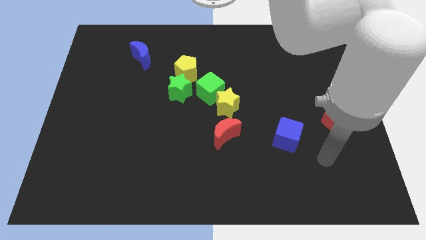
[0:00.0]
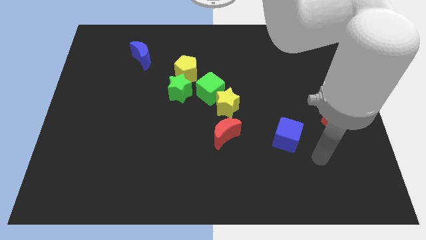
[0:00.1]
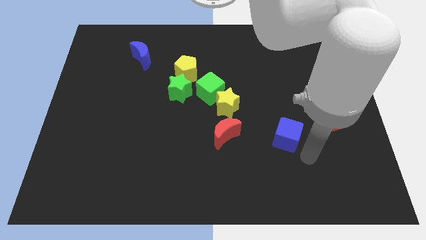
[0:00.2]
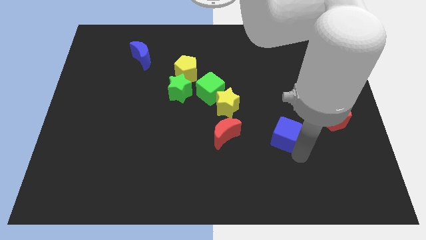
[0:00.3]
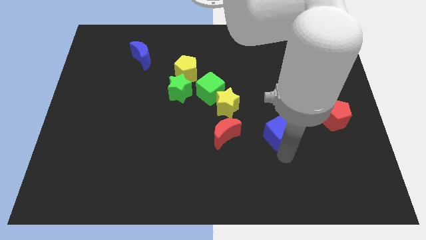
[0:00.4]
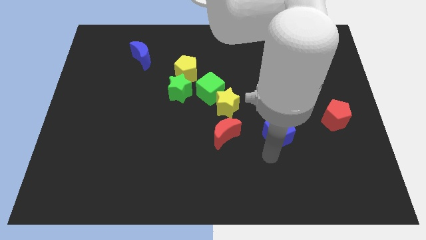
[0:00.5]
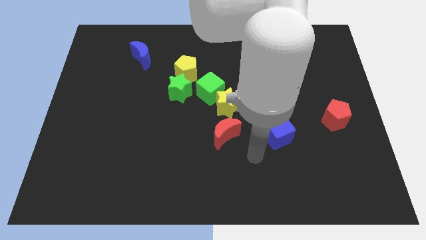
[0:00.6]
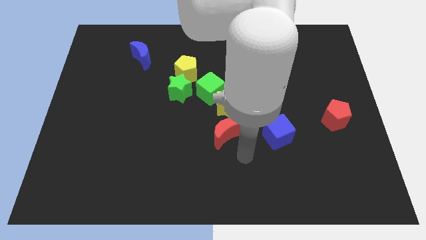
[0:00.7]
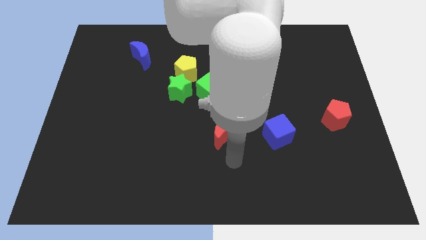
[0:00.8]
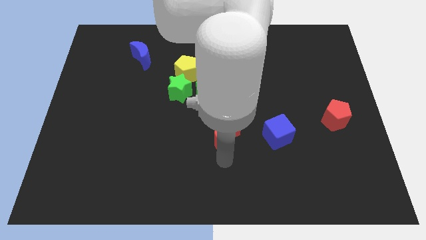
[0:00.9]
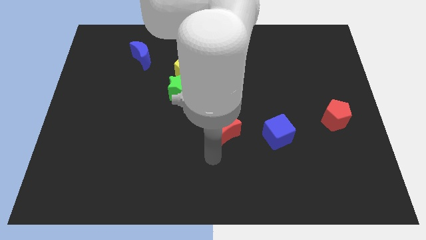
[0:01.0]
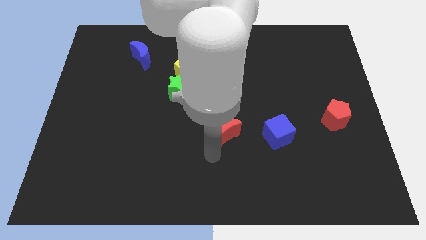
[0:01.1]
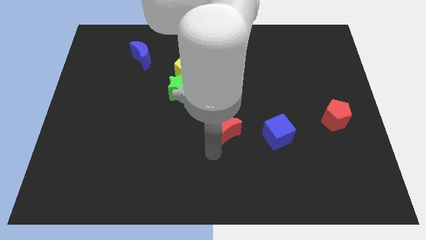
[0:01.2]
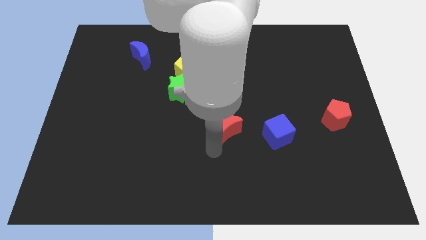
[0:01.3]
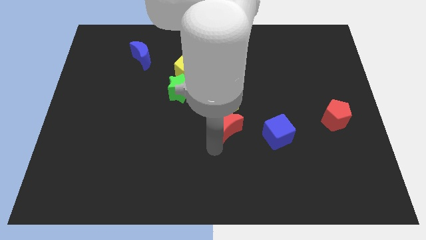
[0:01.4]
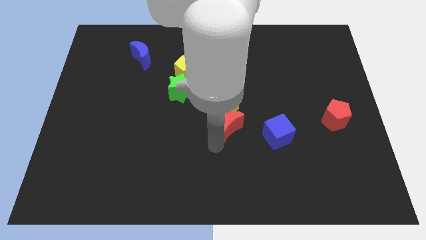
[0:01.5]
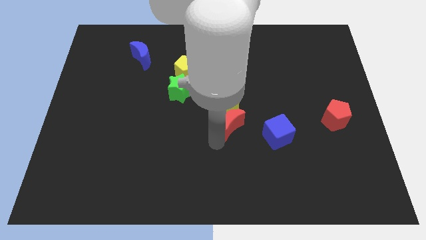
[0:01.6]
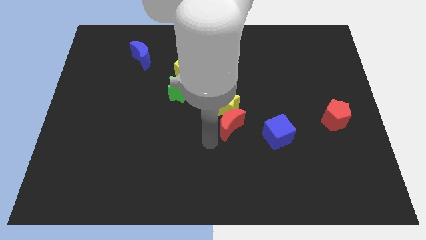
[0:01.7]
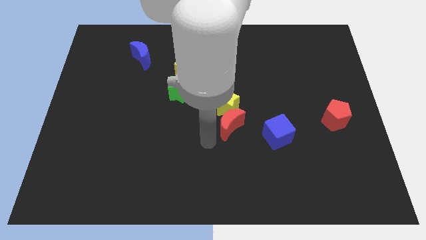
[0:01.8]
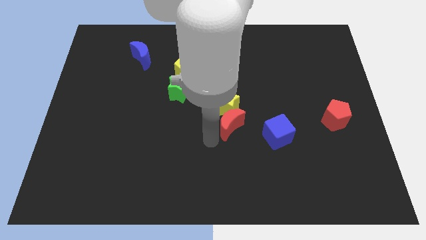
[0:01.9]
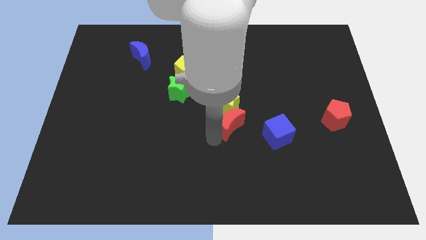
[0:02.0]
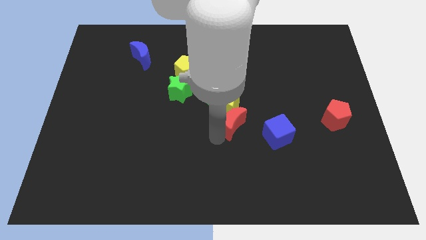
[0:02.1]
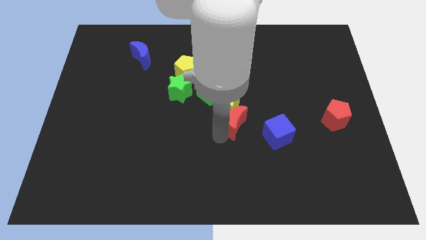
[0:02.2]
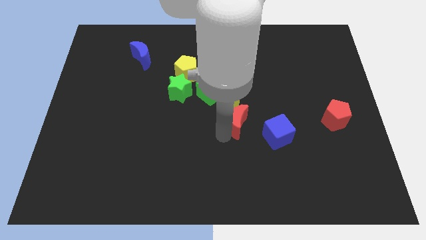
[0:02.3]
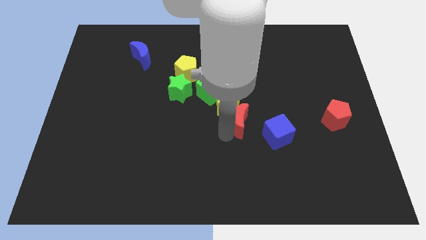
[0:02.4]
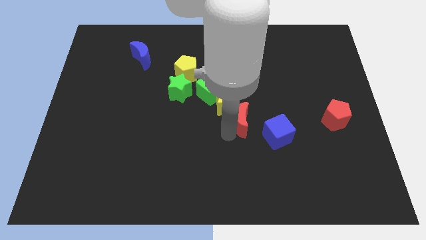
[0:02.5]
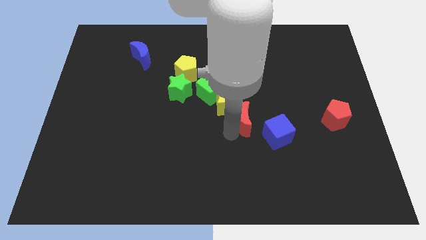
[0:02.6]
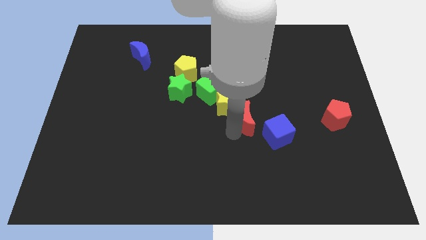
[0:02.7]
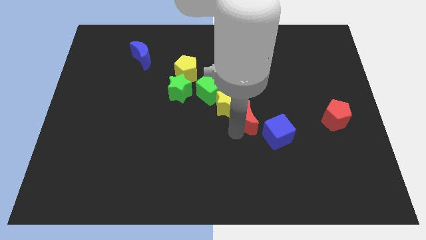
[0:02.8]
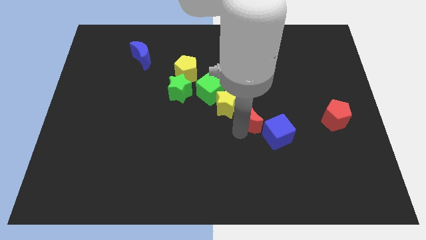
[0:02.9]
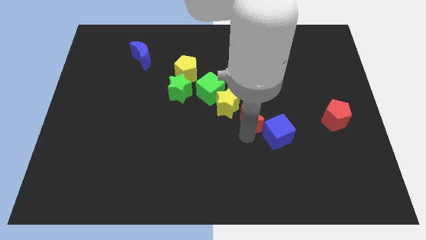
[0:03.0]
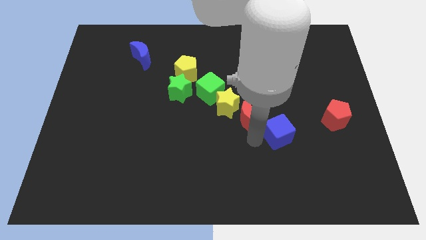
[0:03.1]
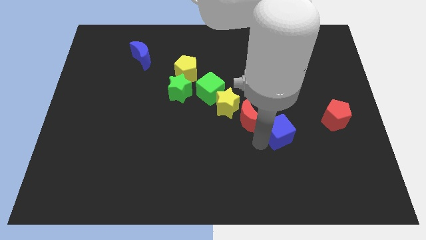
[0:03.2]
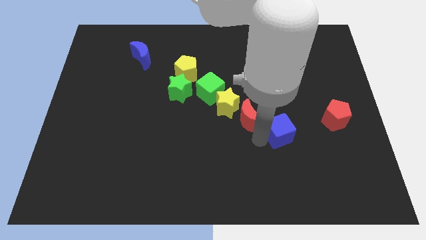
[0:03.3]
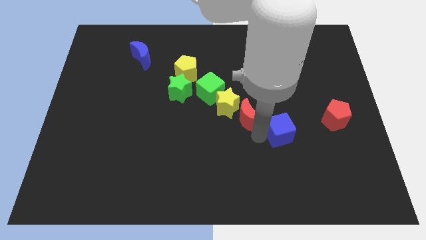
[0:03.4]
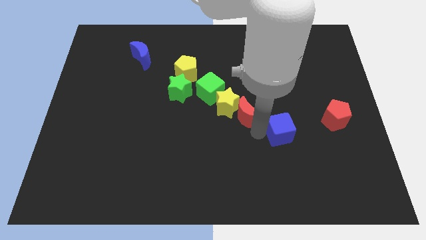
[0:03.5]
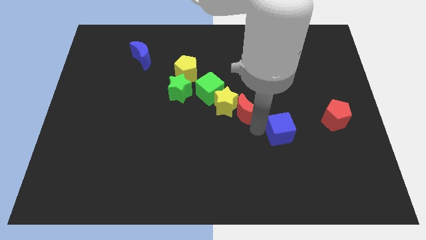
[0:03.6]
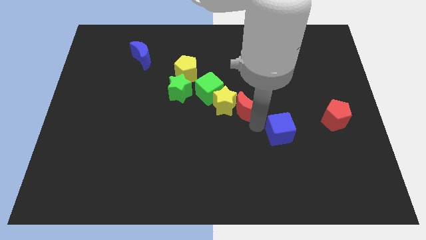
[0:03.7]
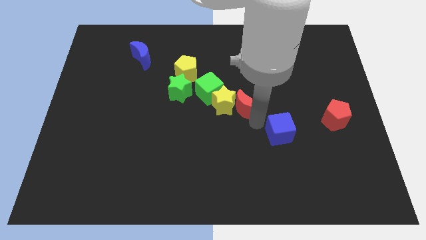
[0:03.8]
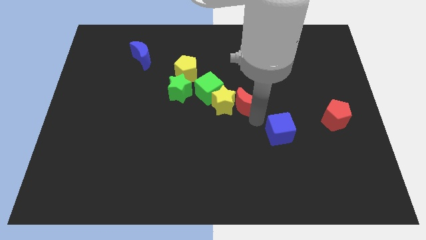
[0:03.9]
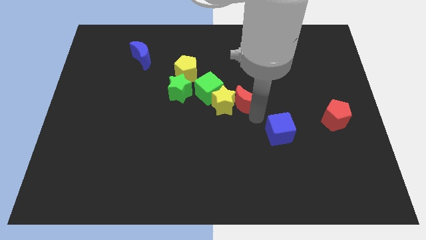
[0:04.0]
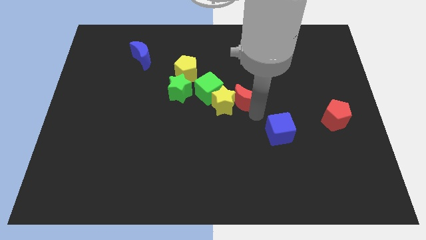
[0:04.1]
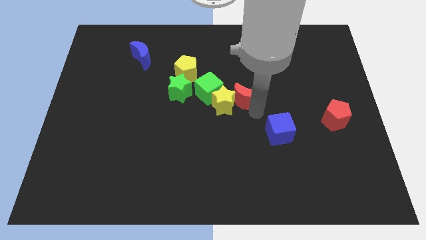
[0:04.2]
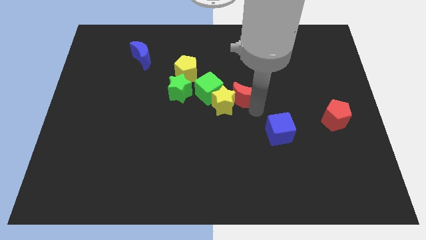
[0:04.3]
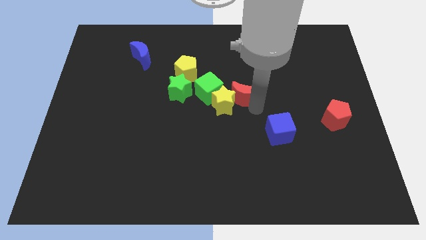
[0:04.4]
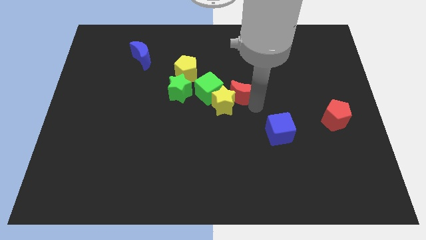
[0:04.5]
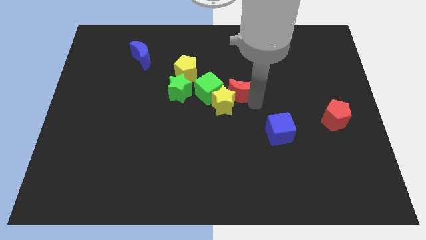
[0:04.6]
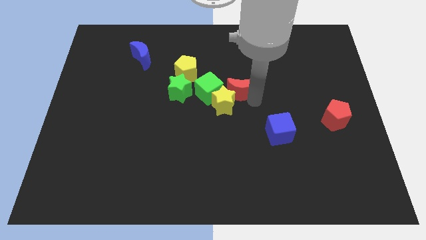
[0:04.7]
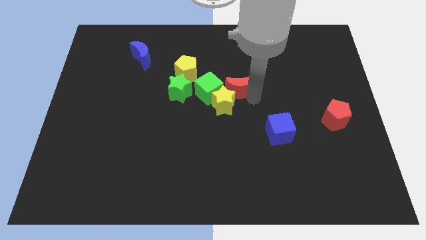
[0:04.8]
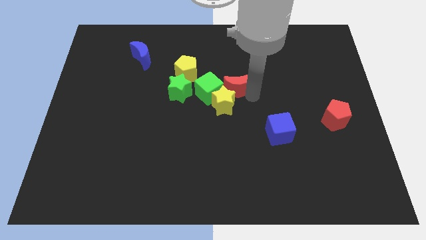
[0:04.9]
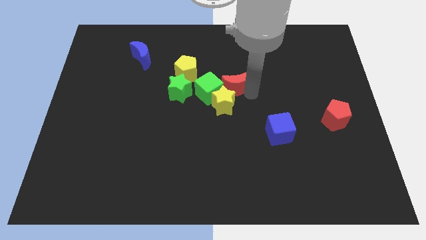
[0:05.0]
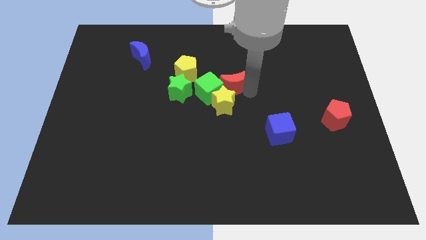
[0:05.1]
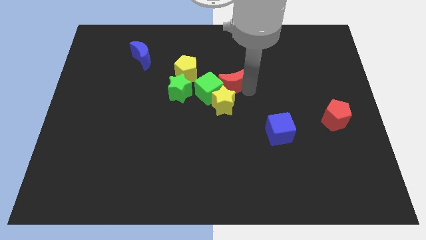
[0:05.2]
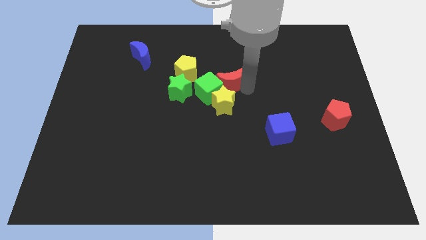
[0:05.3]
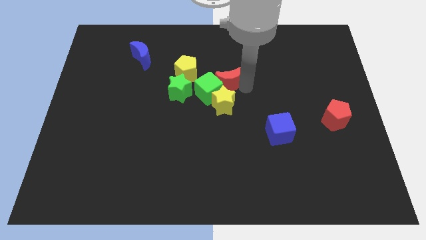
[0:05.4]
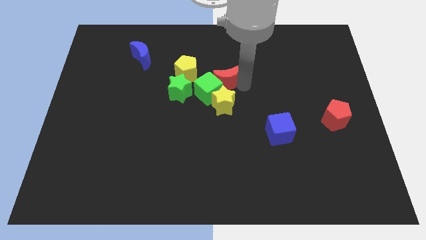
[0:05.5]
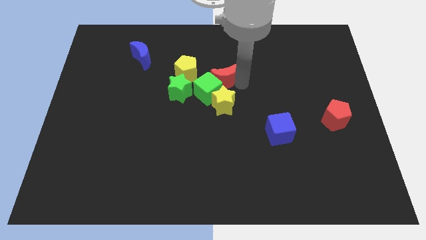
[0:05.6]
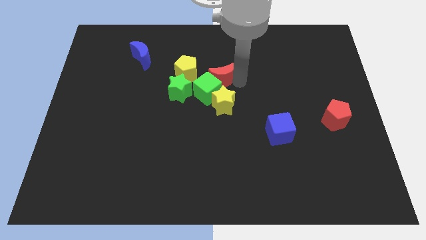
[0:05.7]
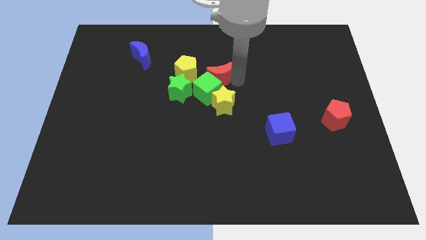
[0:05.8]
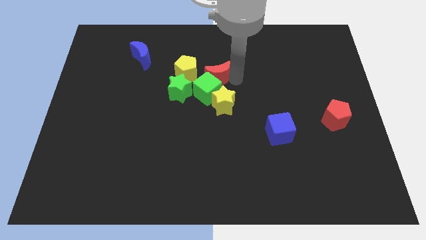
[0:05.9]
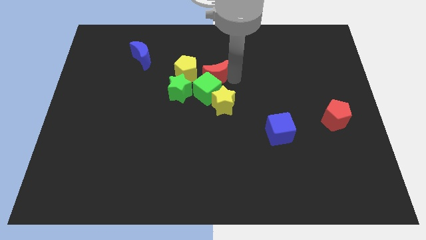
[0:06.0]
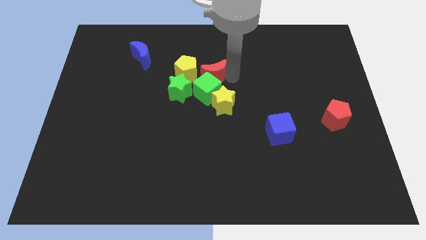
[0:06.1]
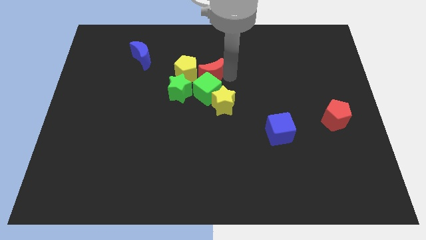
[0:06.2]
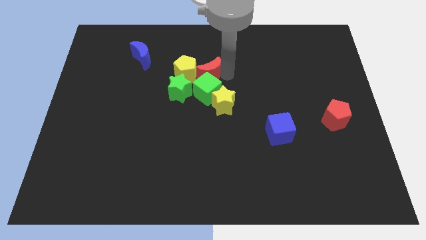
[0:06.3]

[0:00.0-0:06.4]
slide the red moon close to the yellow pentagon

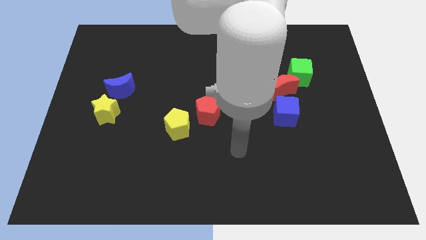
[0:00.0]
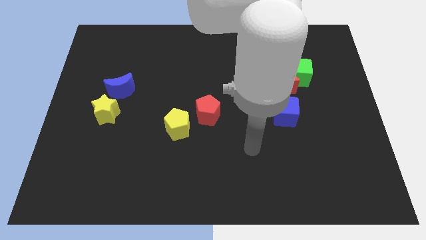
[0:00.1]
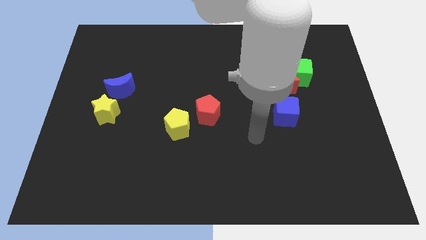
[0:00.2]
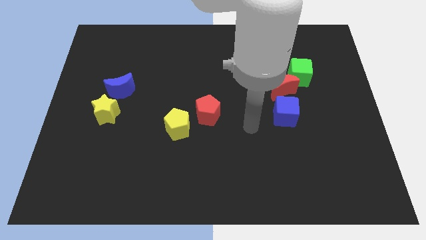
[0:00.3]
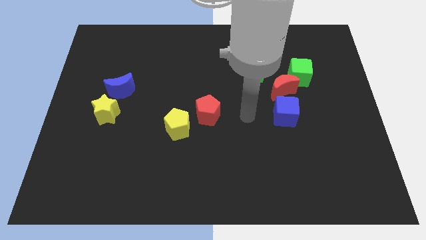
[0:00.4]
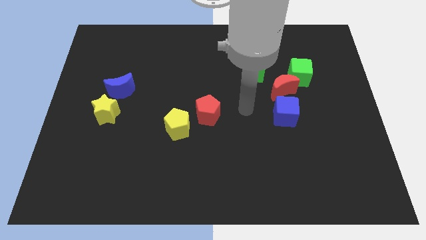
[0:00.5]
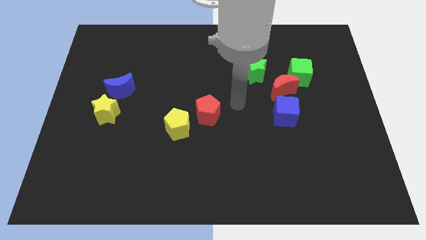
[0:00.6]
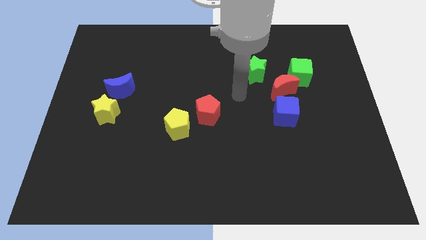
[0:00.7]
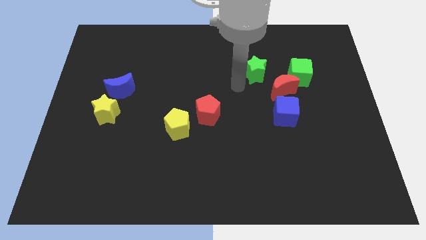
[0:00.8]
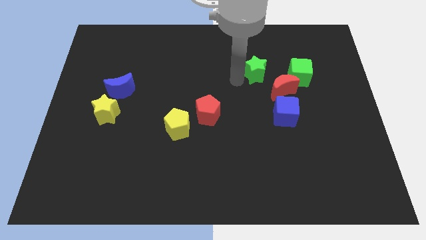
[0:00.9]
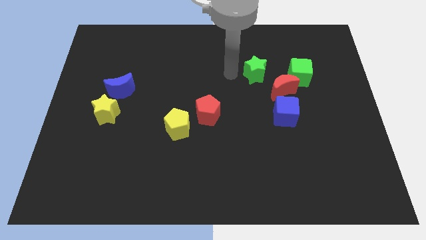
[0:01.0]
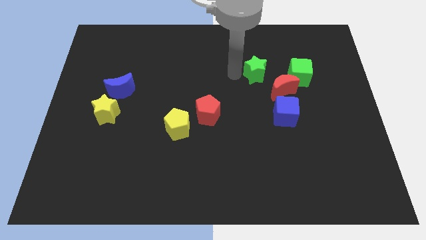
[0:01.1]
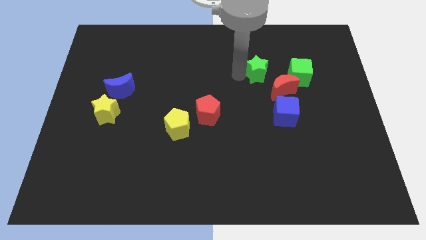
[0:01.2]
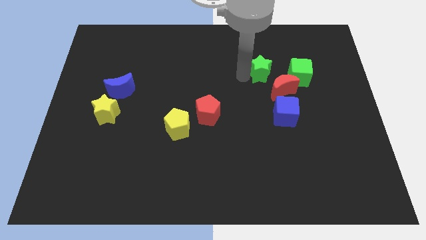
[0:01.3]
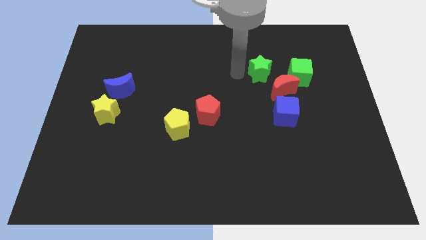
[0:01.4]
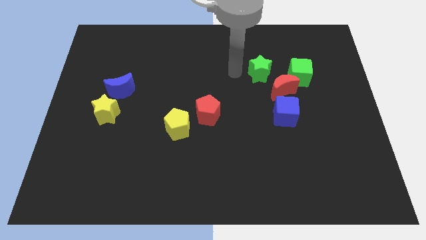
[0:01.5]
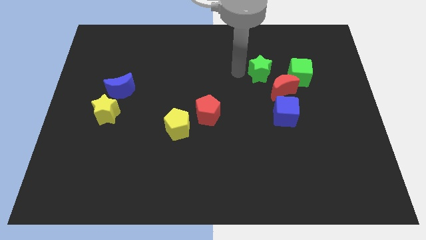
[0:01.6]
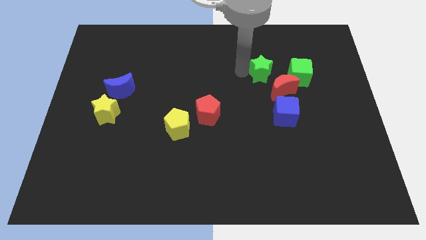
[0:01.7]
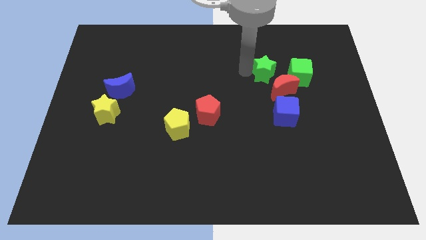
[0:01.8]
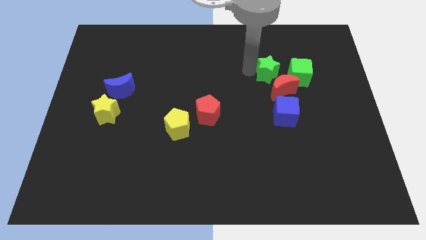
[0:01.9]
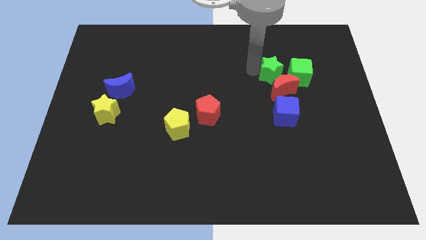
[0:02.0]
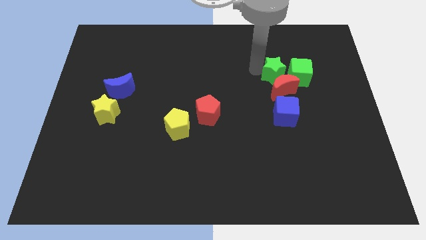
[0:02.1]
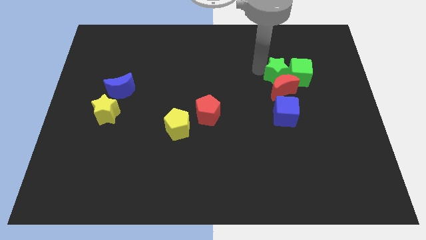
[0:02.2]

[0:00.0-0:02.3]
move the green star next to the green cube
